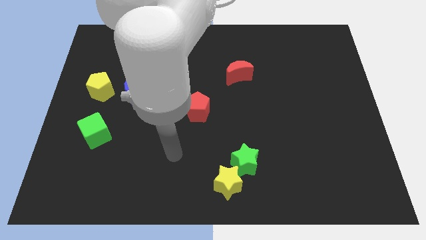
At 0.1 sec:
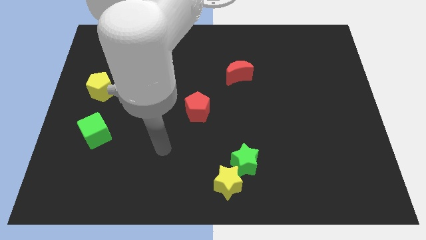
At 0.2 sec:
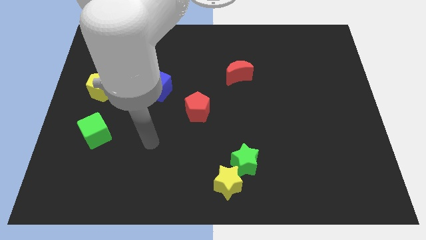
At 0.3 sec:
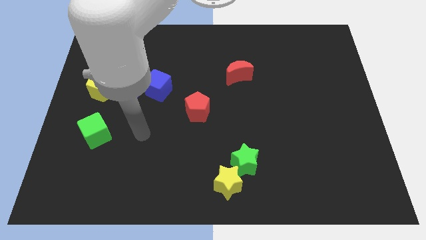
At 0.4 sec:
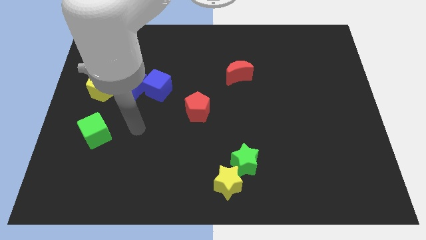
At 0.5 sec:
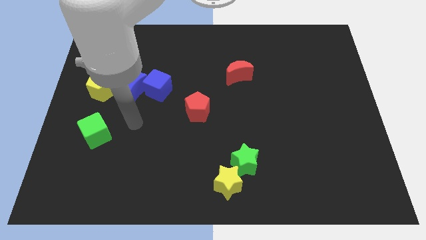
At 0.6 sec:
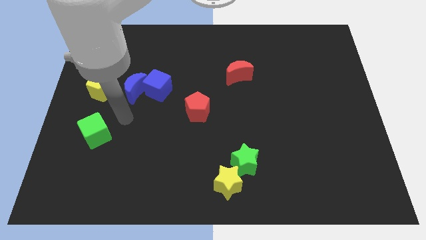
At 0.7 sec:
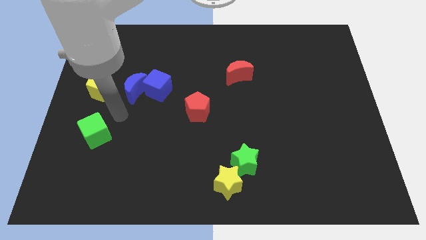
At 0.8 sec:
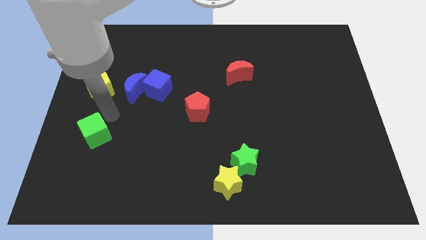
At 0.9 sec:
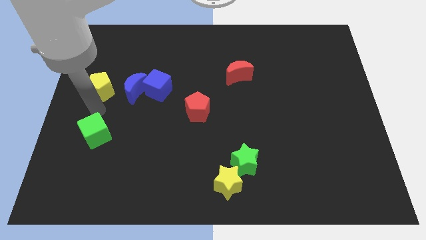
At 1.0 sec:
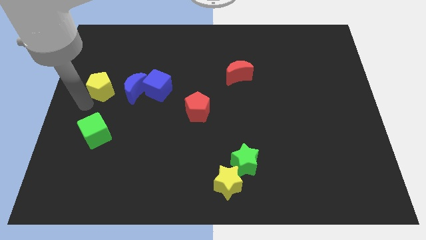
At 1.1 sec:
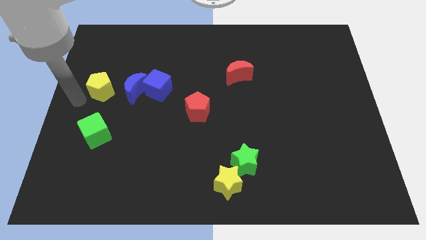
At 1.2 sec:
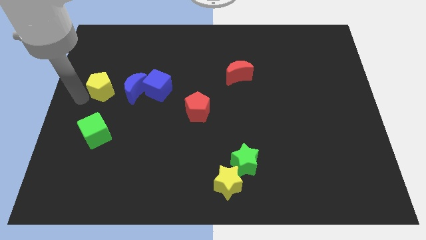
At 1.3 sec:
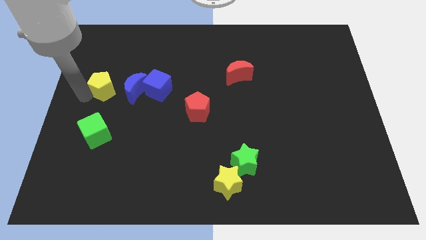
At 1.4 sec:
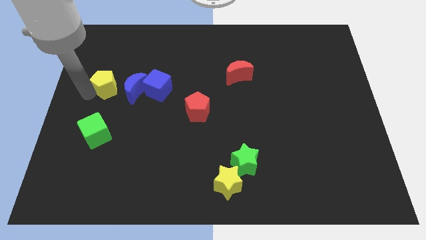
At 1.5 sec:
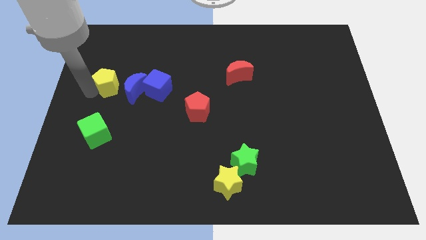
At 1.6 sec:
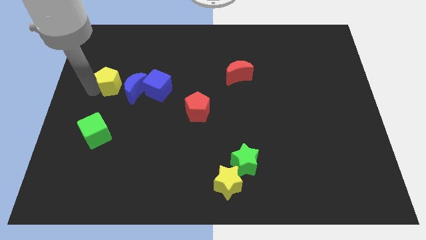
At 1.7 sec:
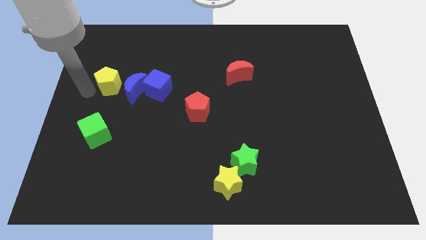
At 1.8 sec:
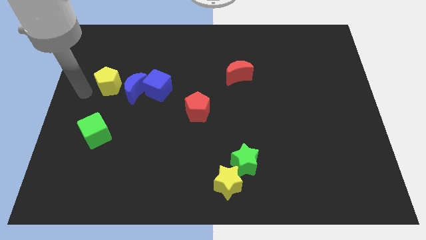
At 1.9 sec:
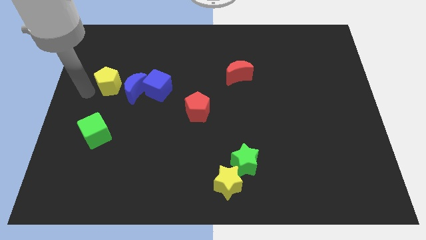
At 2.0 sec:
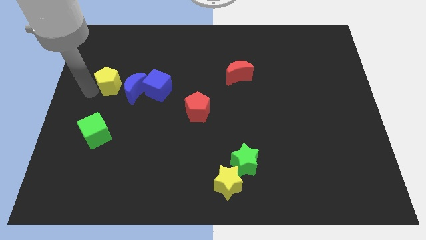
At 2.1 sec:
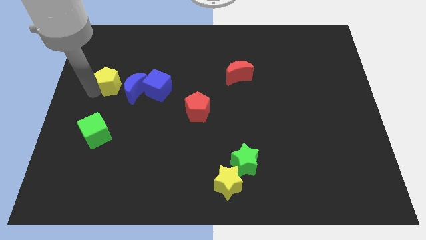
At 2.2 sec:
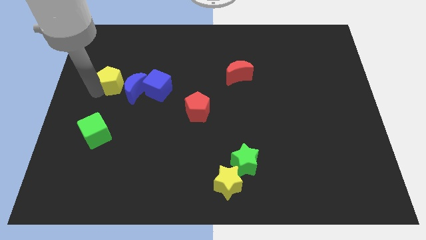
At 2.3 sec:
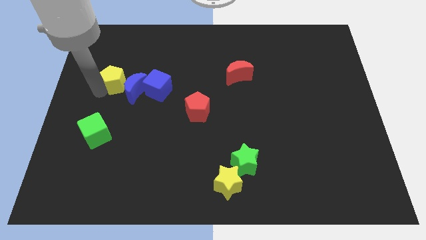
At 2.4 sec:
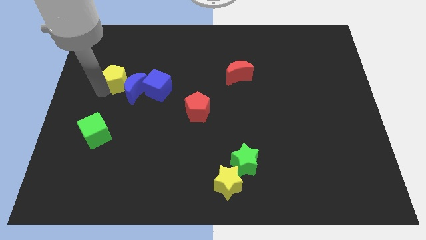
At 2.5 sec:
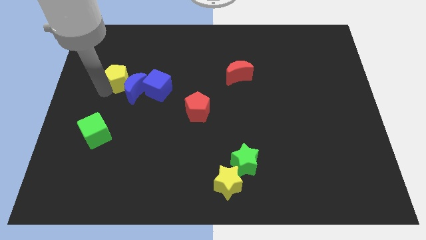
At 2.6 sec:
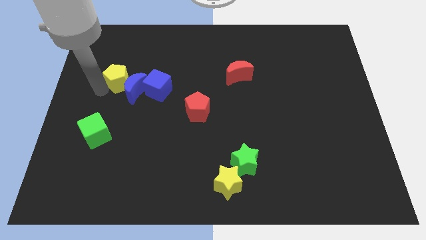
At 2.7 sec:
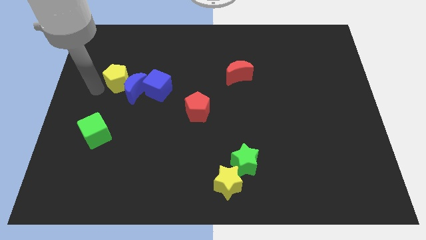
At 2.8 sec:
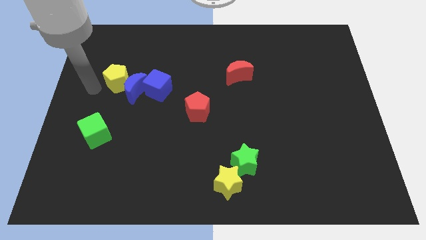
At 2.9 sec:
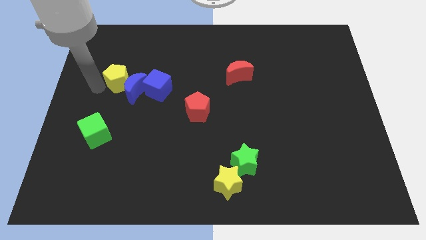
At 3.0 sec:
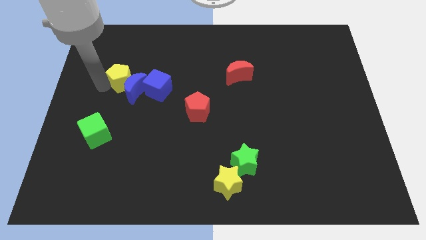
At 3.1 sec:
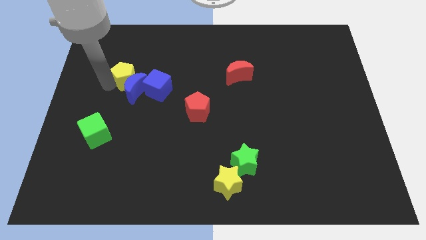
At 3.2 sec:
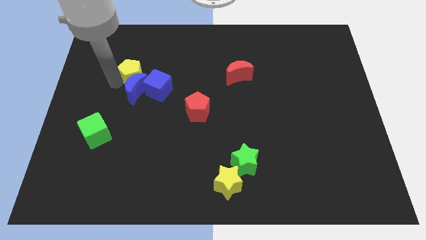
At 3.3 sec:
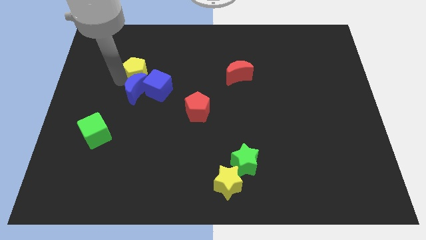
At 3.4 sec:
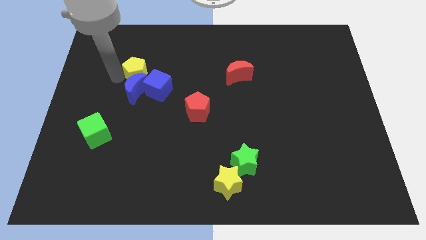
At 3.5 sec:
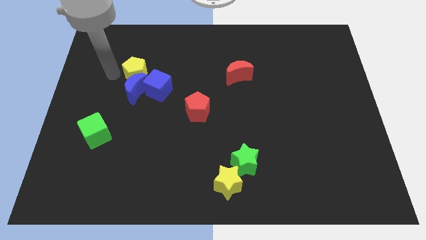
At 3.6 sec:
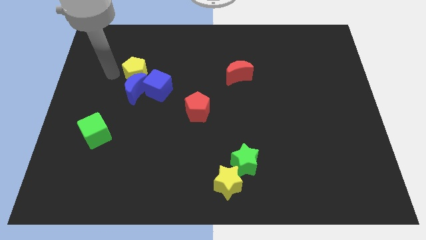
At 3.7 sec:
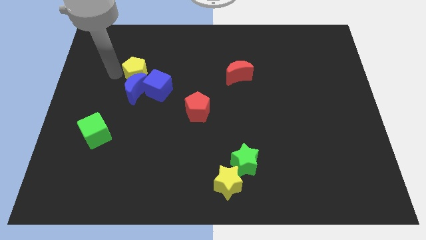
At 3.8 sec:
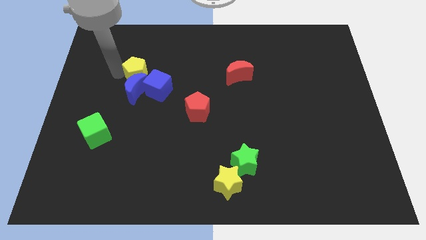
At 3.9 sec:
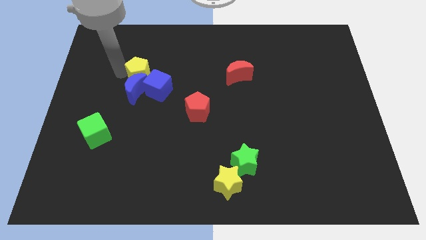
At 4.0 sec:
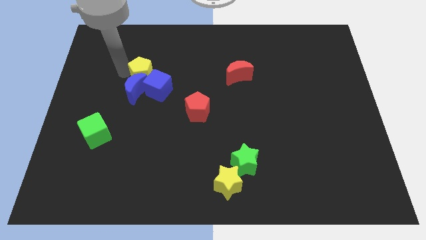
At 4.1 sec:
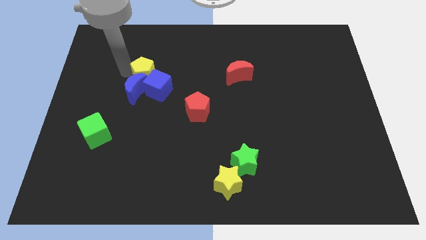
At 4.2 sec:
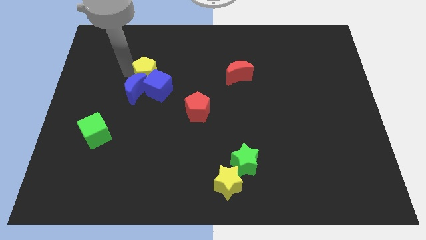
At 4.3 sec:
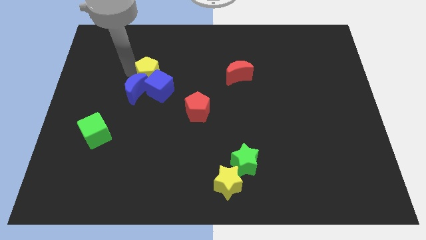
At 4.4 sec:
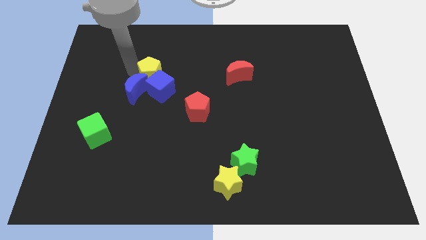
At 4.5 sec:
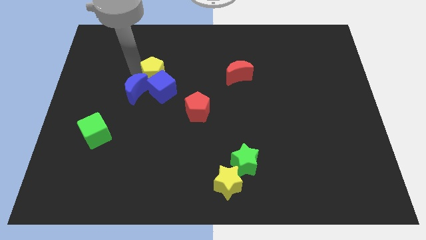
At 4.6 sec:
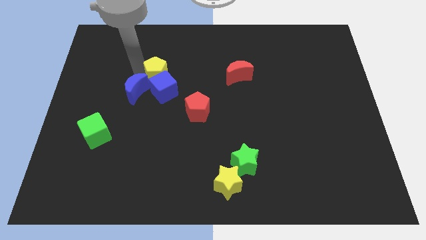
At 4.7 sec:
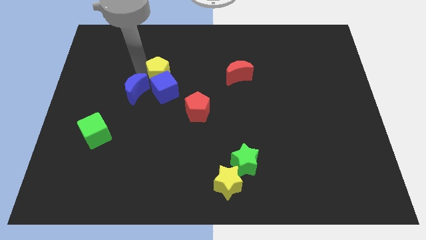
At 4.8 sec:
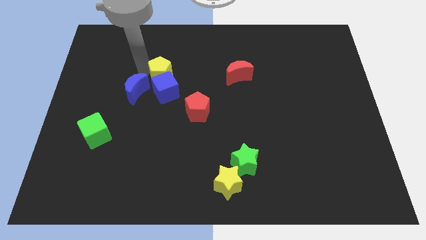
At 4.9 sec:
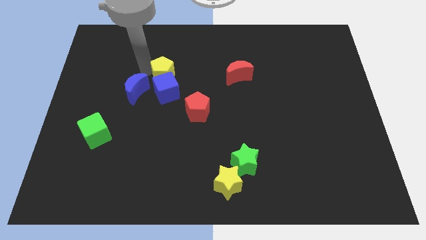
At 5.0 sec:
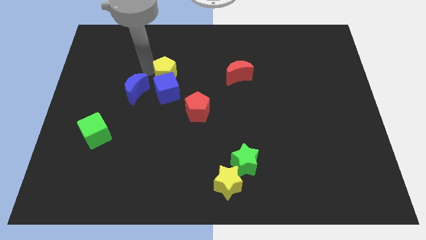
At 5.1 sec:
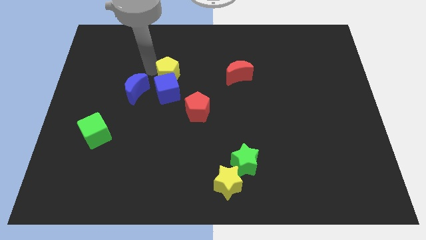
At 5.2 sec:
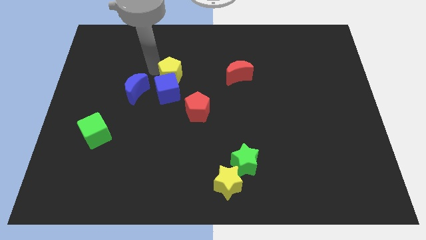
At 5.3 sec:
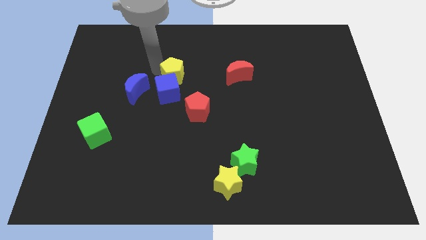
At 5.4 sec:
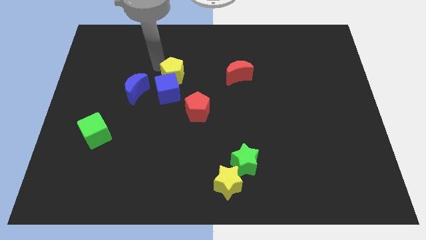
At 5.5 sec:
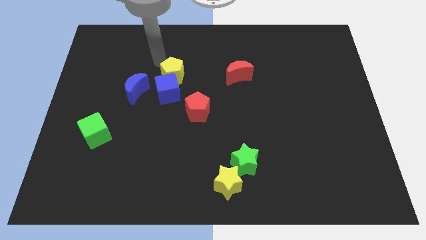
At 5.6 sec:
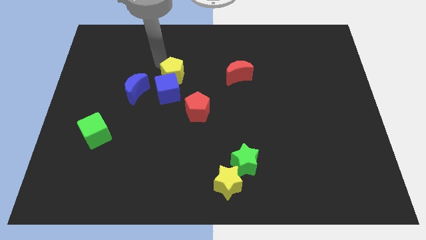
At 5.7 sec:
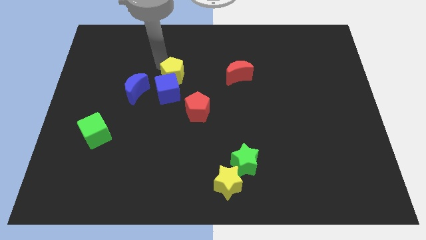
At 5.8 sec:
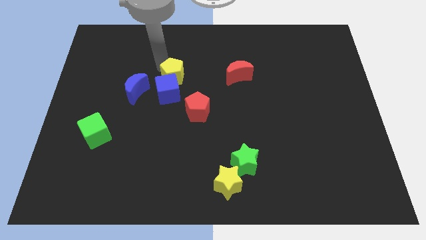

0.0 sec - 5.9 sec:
push the yellow pentagon to the middle

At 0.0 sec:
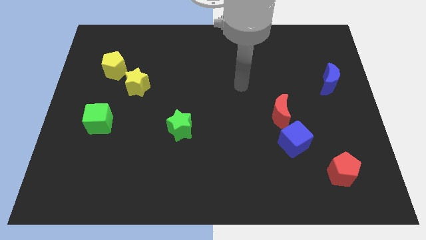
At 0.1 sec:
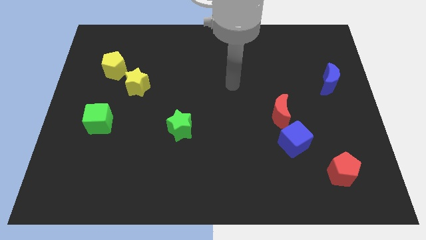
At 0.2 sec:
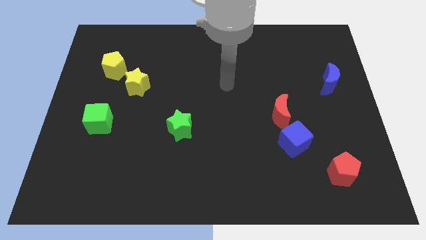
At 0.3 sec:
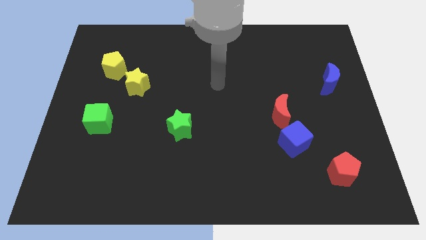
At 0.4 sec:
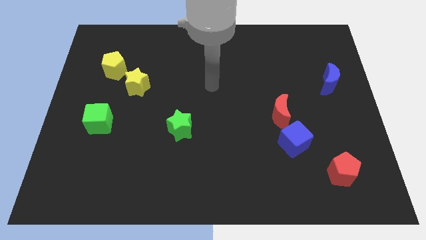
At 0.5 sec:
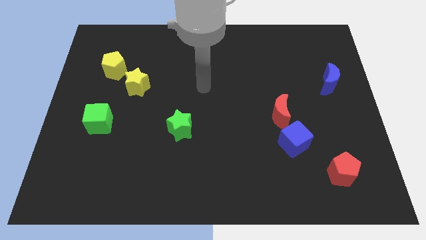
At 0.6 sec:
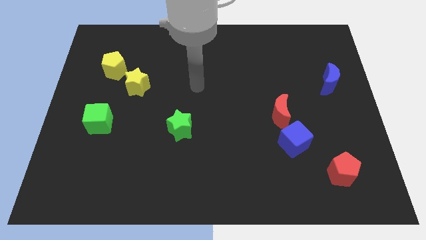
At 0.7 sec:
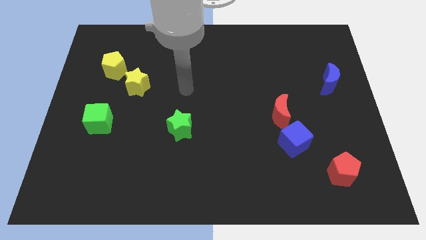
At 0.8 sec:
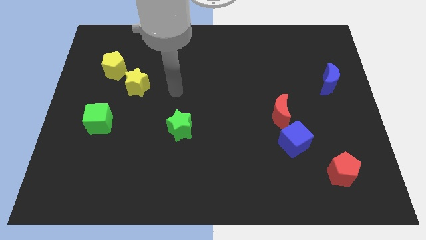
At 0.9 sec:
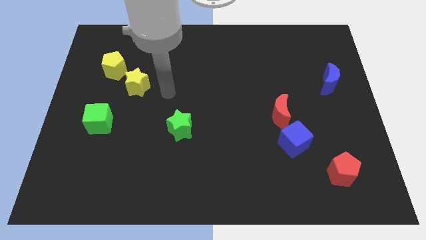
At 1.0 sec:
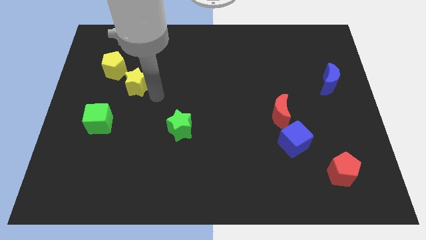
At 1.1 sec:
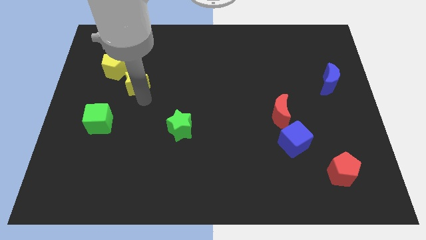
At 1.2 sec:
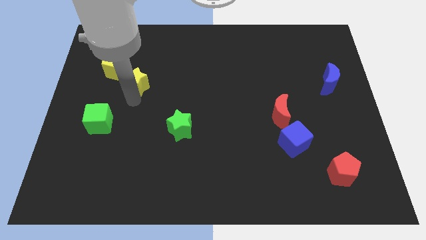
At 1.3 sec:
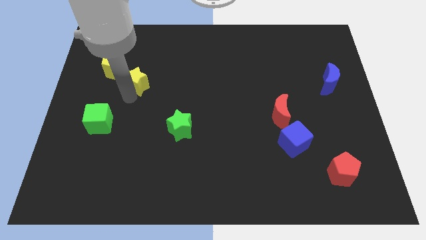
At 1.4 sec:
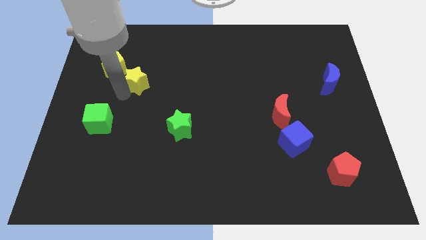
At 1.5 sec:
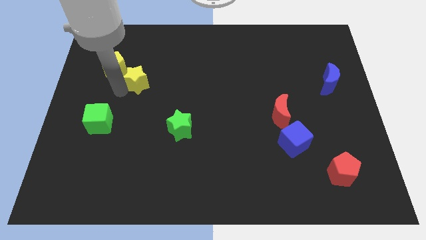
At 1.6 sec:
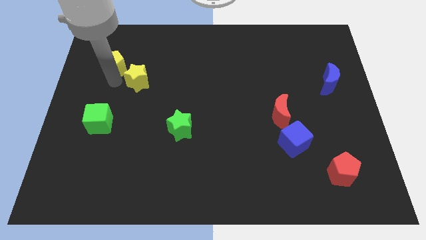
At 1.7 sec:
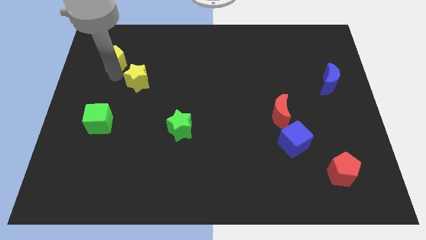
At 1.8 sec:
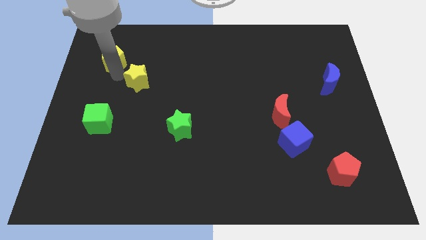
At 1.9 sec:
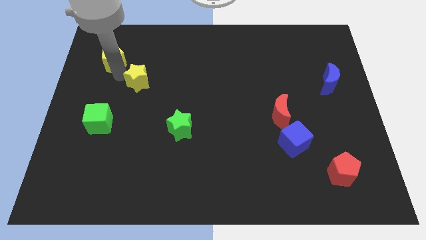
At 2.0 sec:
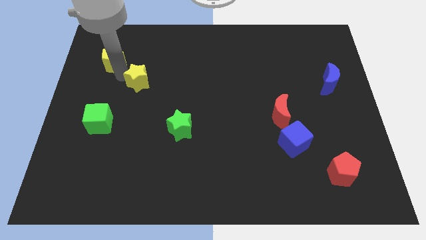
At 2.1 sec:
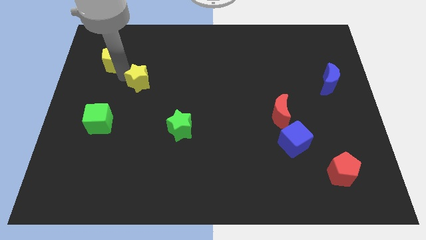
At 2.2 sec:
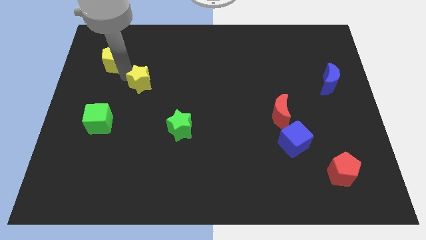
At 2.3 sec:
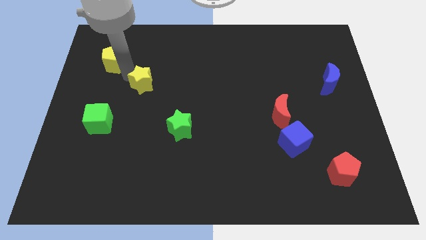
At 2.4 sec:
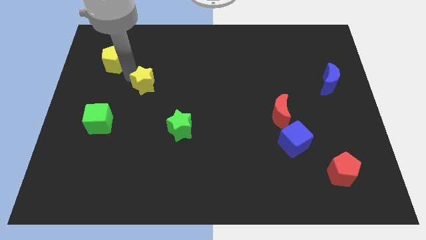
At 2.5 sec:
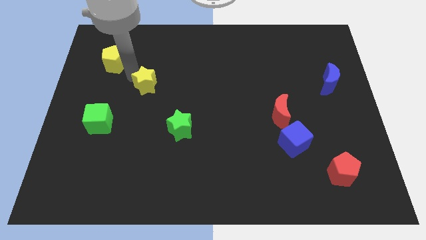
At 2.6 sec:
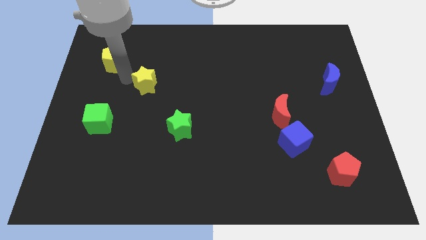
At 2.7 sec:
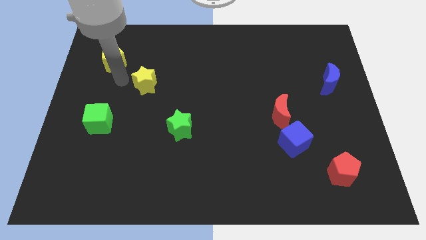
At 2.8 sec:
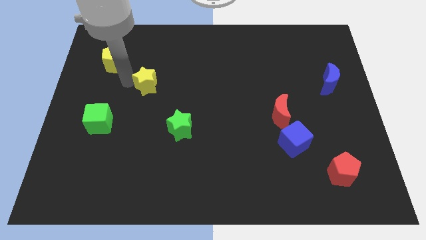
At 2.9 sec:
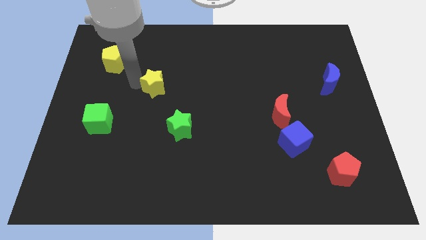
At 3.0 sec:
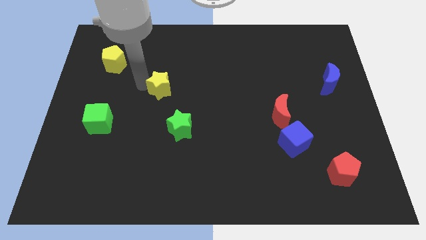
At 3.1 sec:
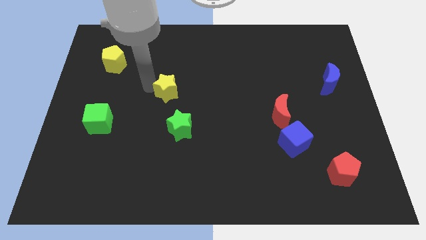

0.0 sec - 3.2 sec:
slide the yellow star to the center of the board
